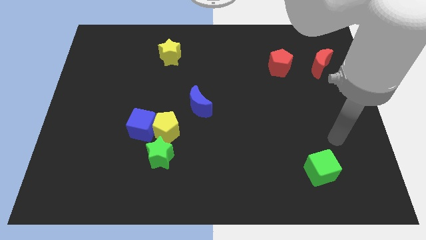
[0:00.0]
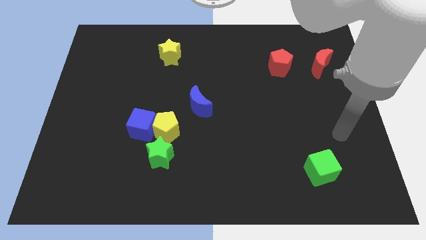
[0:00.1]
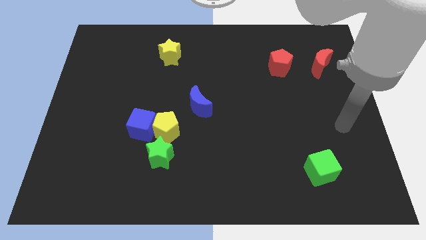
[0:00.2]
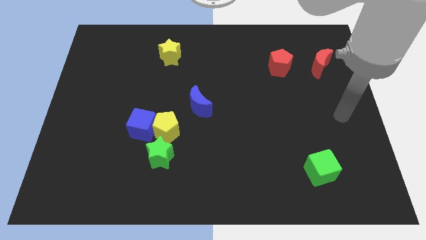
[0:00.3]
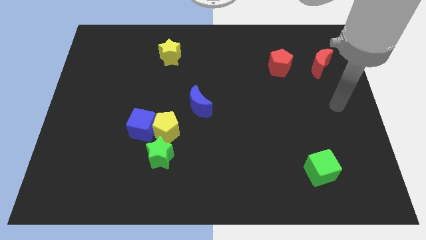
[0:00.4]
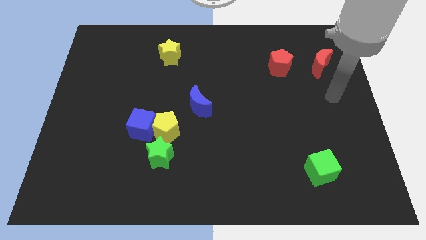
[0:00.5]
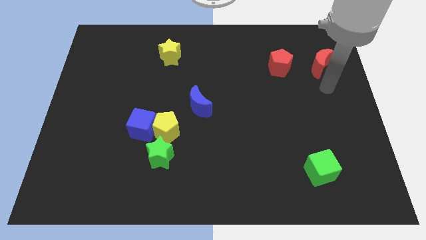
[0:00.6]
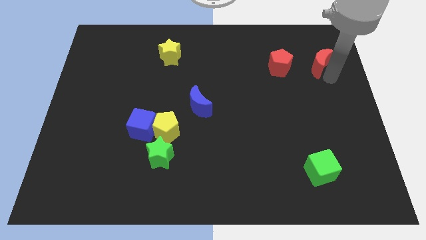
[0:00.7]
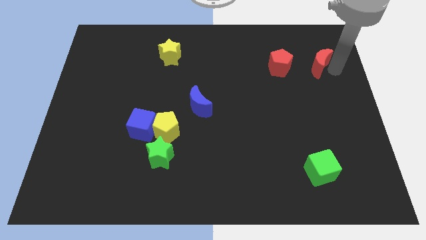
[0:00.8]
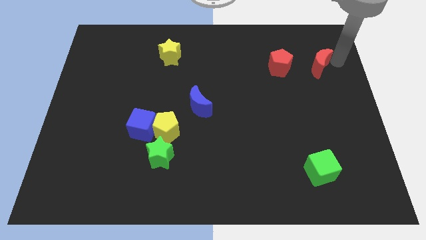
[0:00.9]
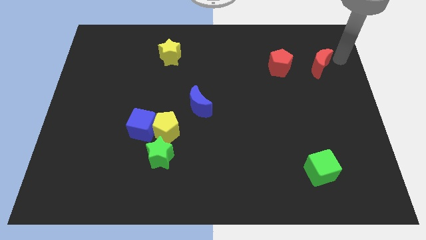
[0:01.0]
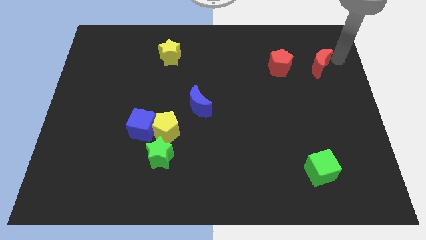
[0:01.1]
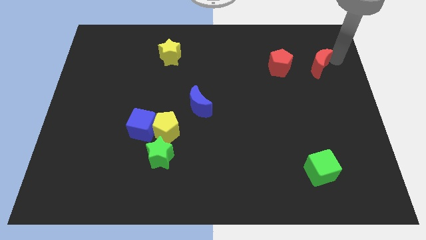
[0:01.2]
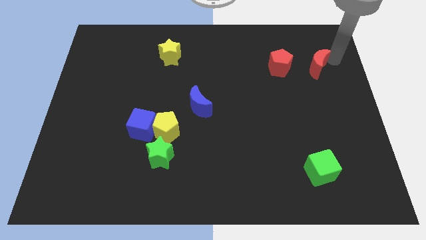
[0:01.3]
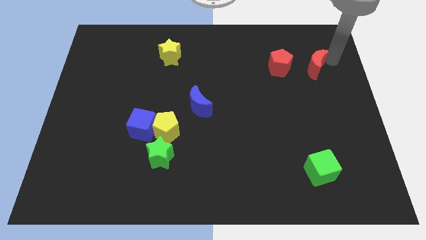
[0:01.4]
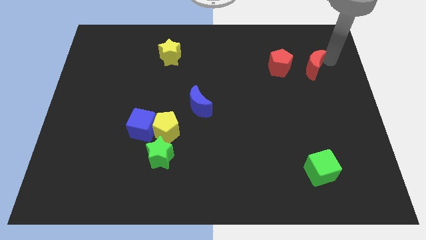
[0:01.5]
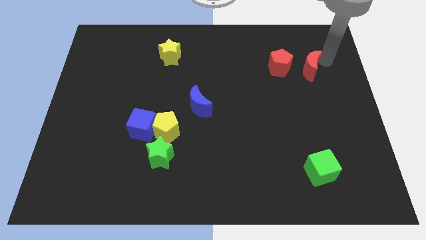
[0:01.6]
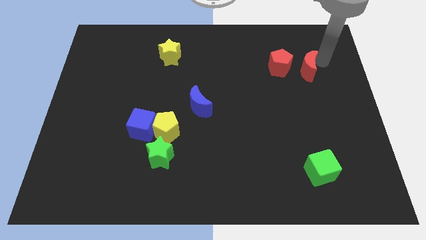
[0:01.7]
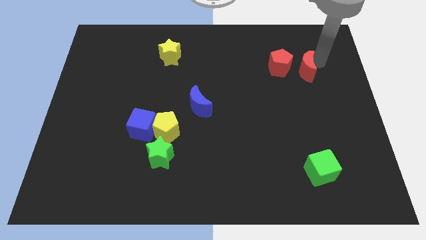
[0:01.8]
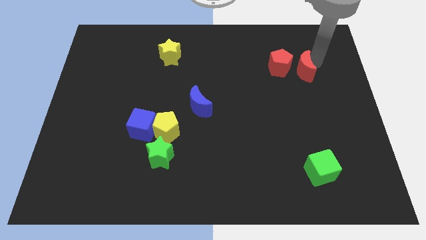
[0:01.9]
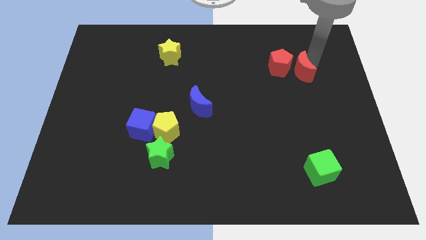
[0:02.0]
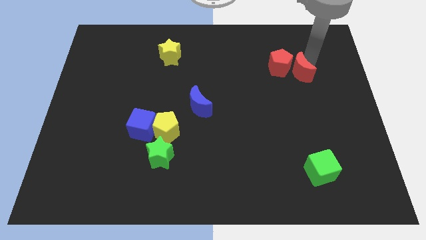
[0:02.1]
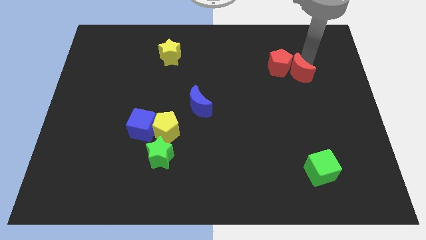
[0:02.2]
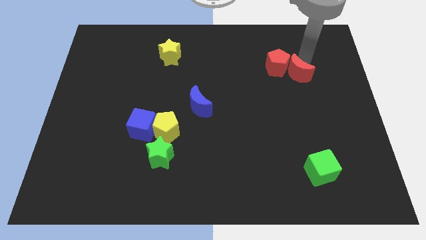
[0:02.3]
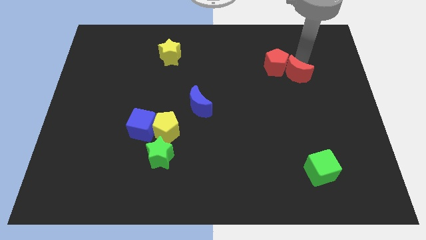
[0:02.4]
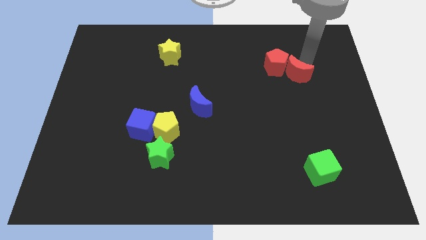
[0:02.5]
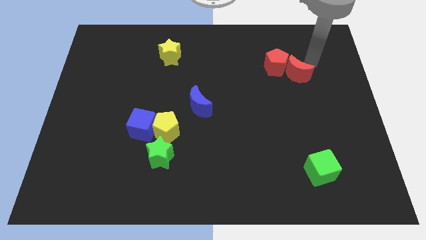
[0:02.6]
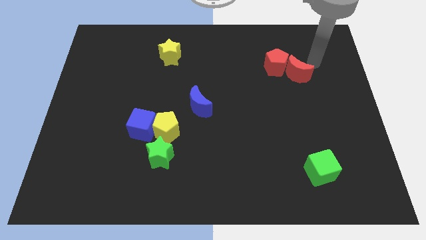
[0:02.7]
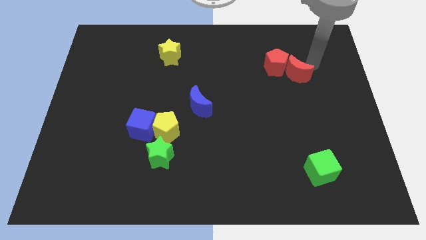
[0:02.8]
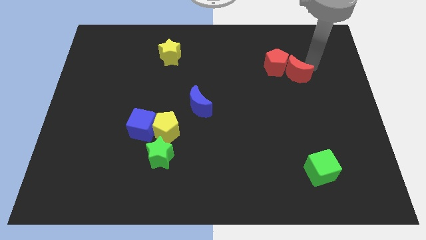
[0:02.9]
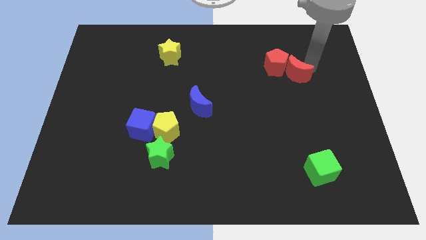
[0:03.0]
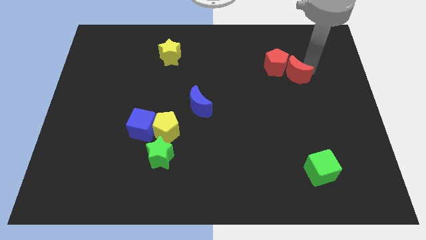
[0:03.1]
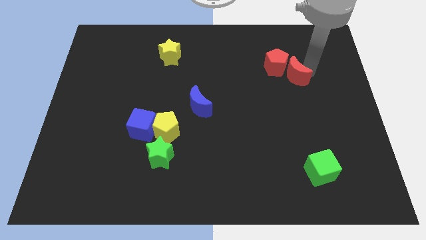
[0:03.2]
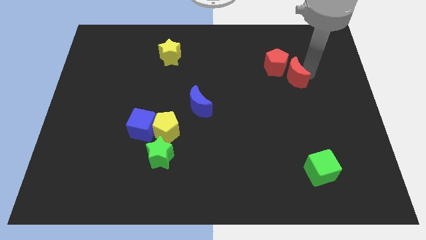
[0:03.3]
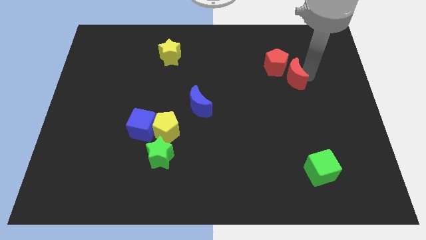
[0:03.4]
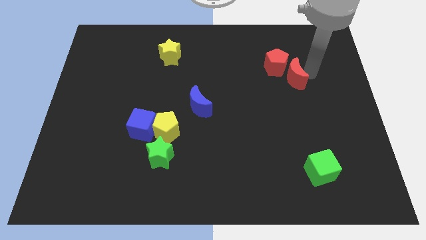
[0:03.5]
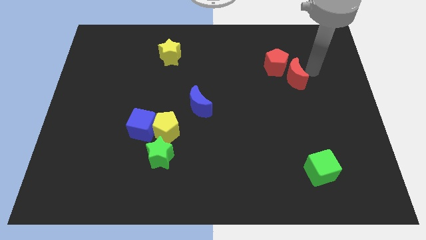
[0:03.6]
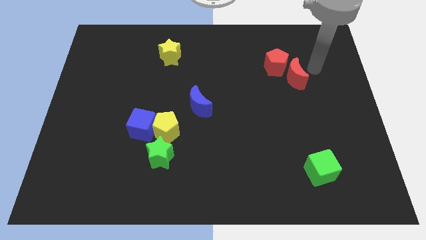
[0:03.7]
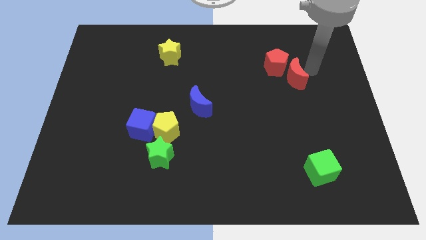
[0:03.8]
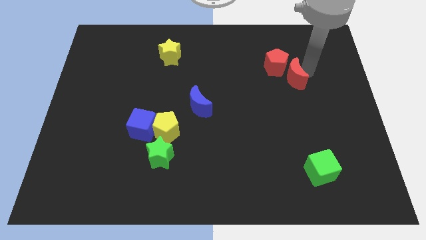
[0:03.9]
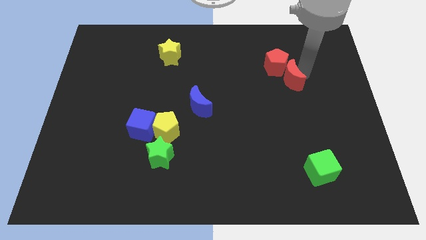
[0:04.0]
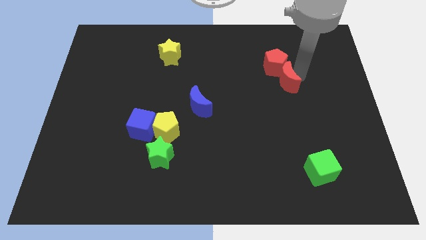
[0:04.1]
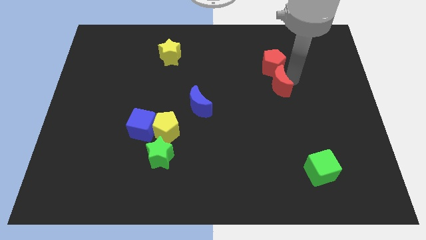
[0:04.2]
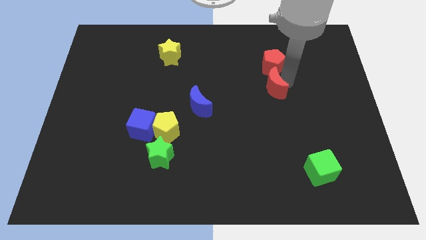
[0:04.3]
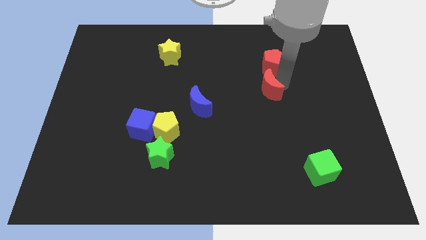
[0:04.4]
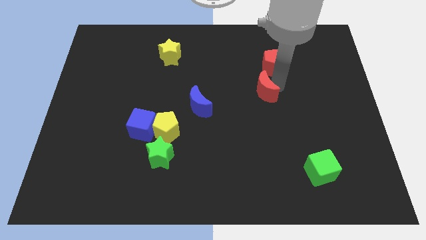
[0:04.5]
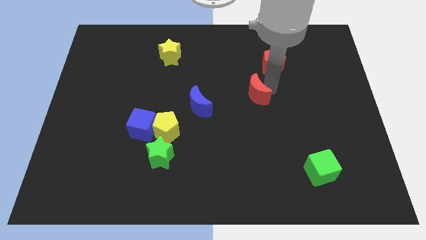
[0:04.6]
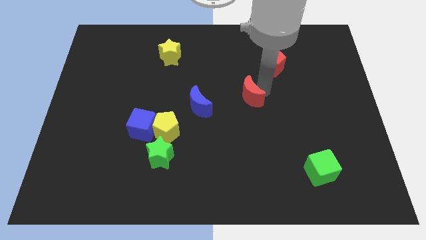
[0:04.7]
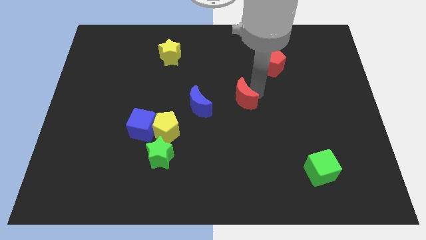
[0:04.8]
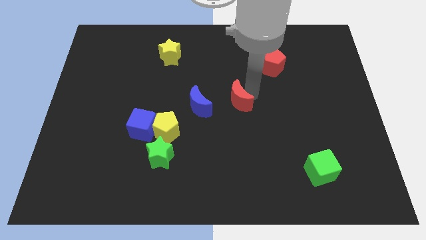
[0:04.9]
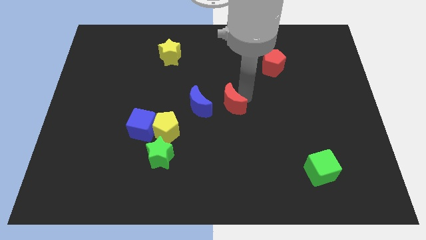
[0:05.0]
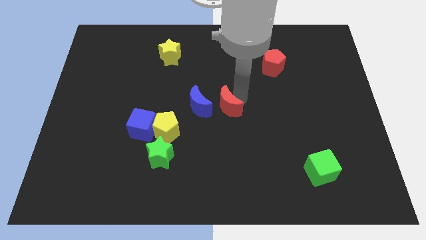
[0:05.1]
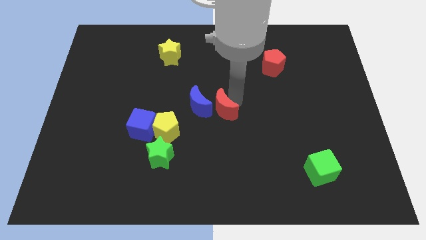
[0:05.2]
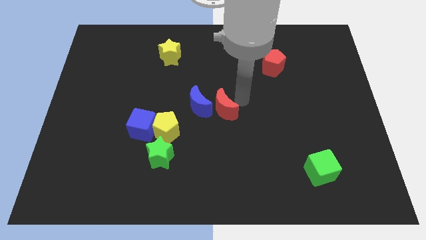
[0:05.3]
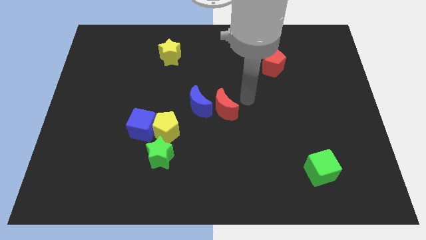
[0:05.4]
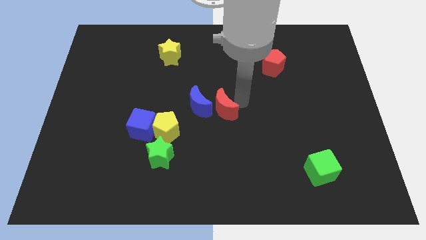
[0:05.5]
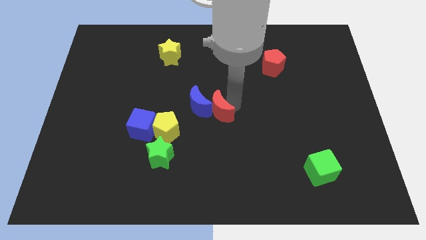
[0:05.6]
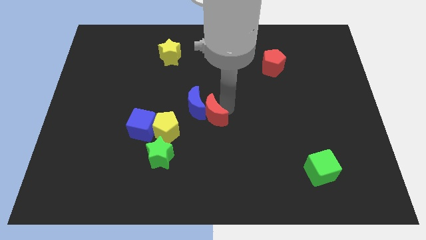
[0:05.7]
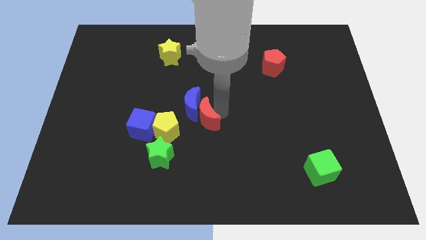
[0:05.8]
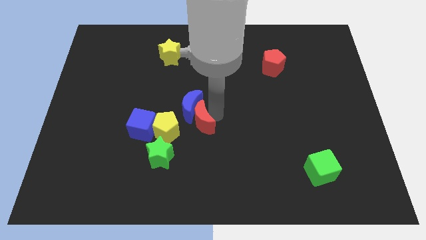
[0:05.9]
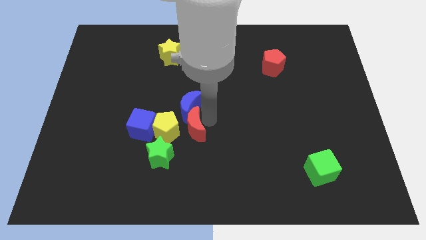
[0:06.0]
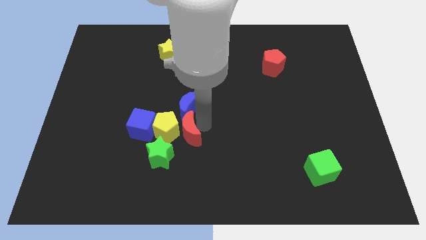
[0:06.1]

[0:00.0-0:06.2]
push the red moon towards the yellow pentagon

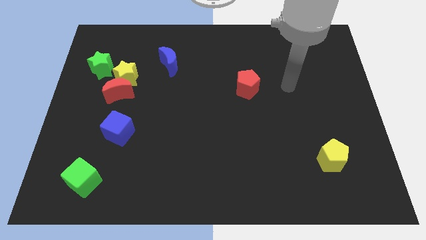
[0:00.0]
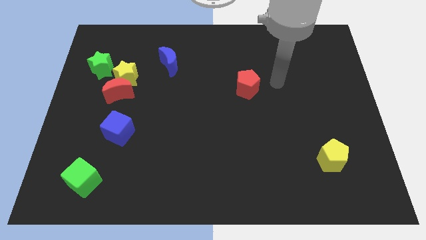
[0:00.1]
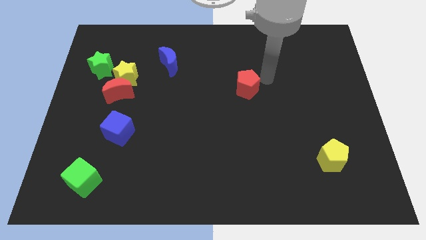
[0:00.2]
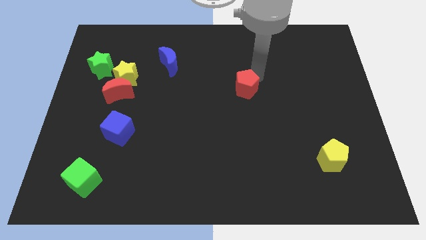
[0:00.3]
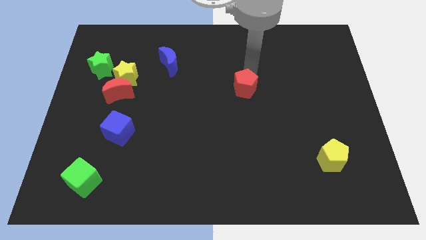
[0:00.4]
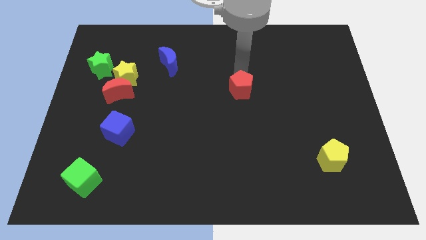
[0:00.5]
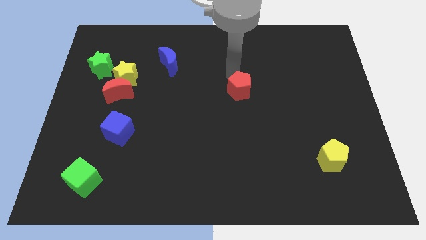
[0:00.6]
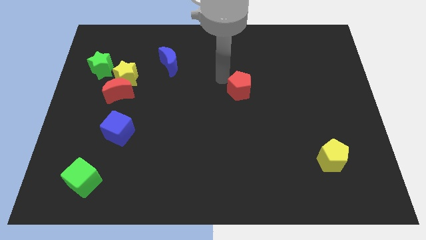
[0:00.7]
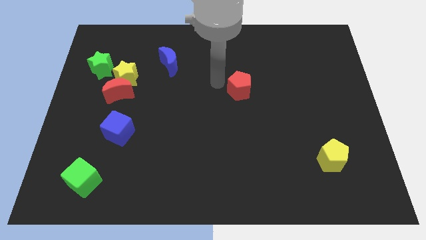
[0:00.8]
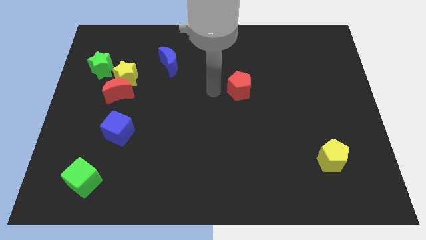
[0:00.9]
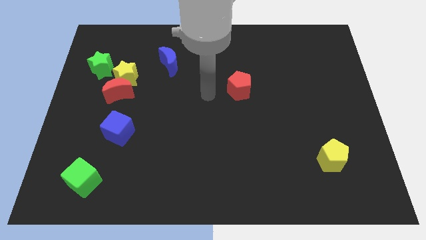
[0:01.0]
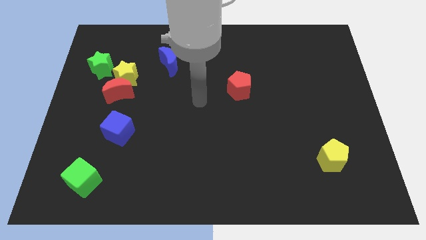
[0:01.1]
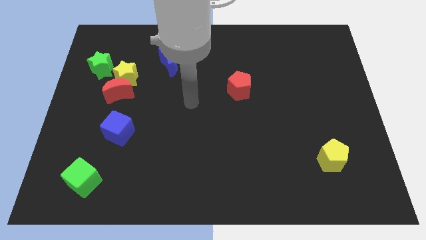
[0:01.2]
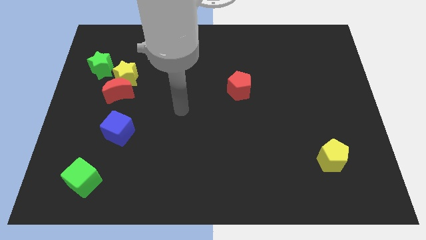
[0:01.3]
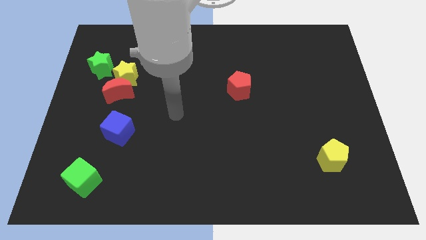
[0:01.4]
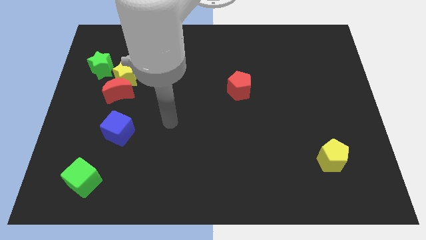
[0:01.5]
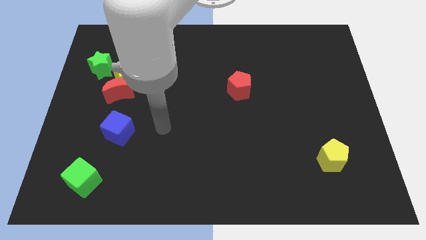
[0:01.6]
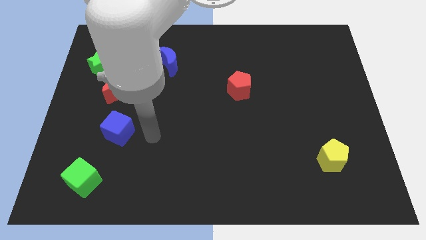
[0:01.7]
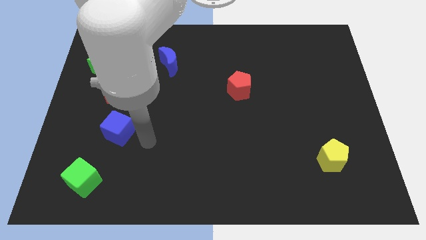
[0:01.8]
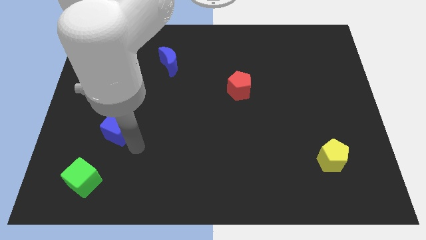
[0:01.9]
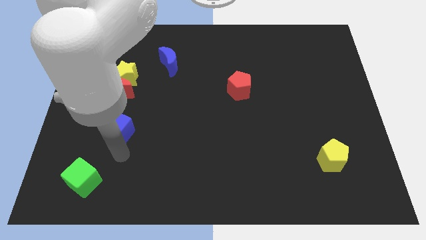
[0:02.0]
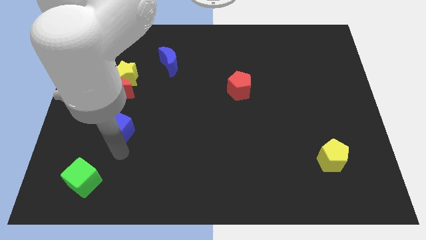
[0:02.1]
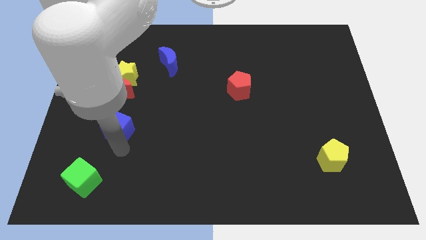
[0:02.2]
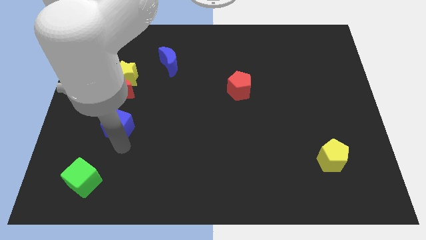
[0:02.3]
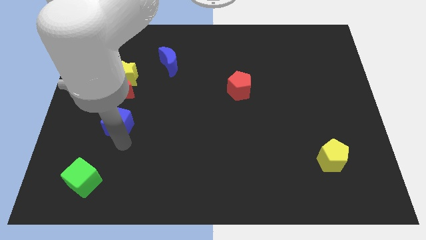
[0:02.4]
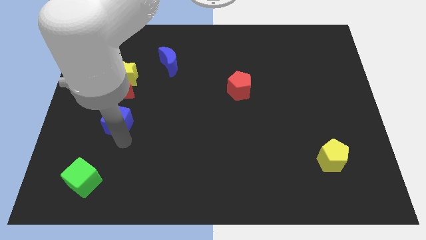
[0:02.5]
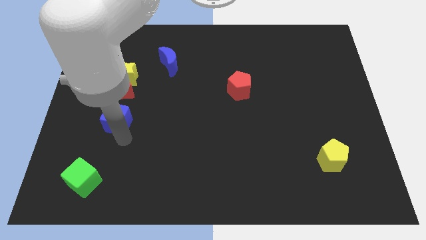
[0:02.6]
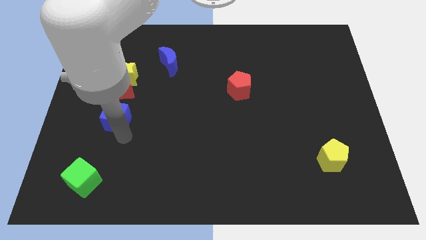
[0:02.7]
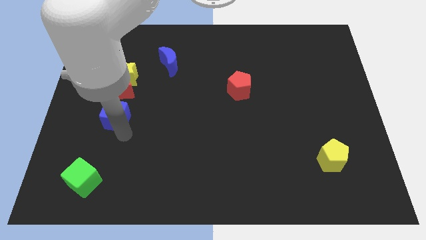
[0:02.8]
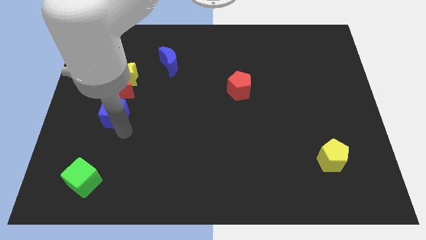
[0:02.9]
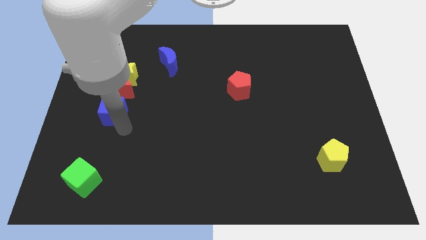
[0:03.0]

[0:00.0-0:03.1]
put the blue cube close to the red moon
